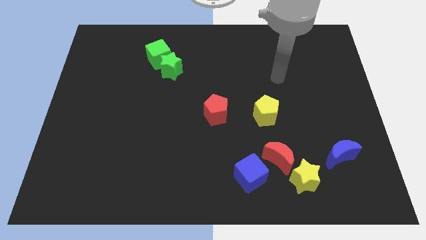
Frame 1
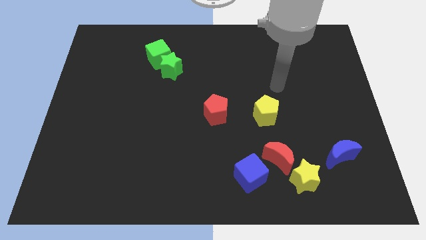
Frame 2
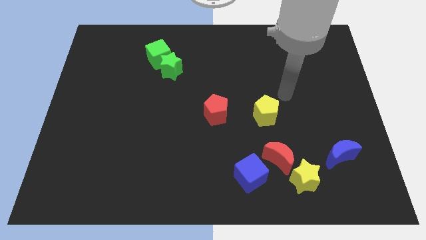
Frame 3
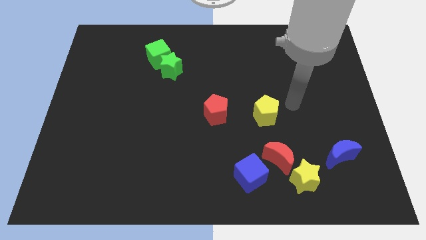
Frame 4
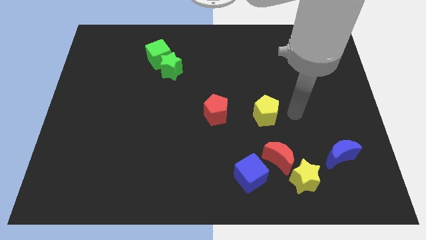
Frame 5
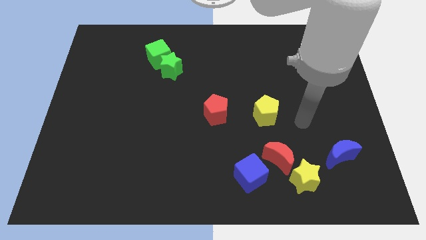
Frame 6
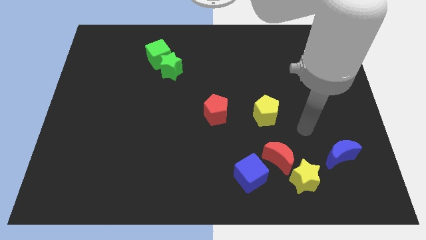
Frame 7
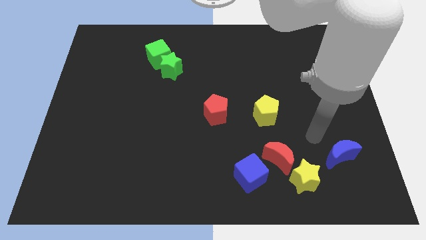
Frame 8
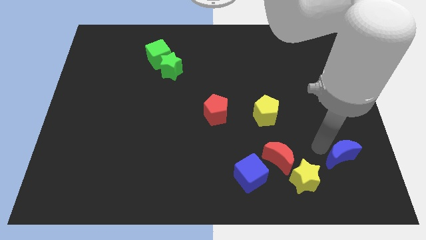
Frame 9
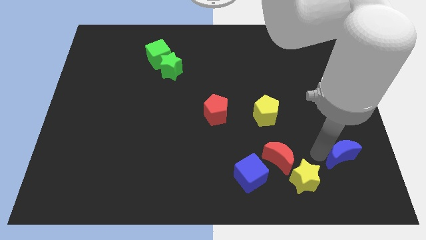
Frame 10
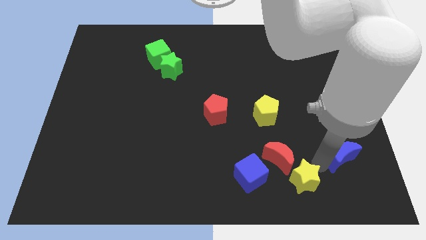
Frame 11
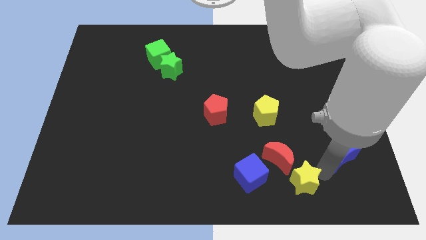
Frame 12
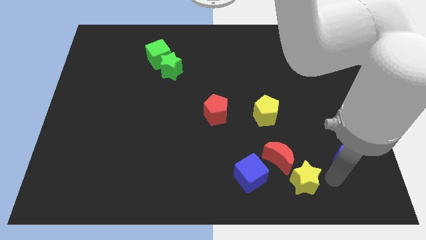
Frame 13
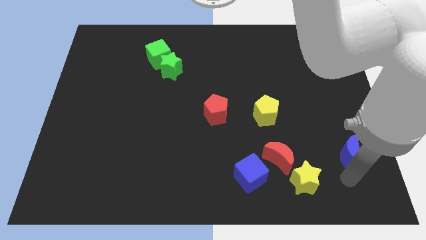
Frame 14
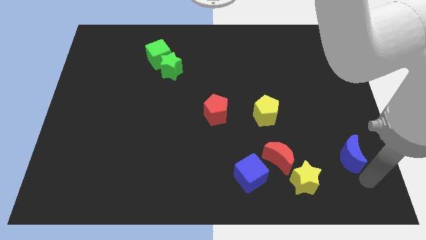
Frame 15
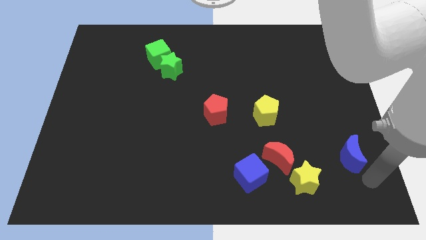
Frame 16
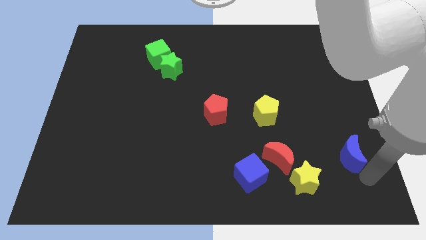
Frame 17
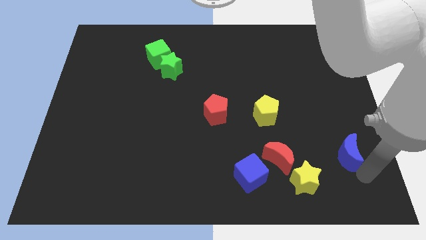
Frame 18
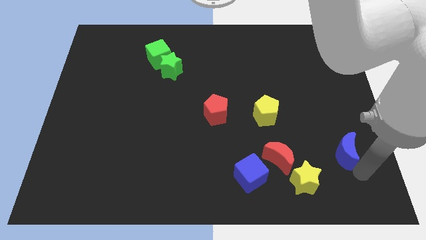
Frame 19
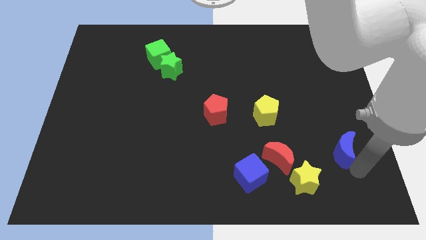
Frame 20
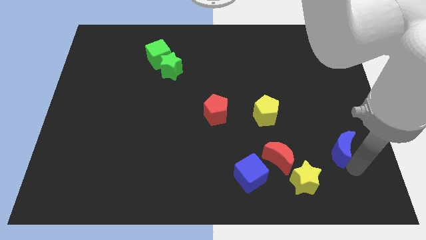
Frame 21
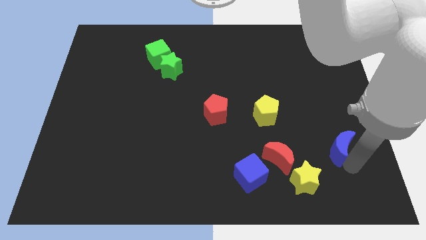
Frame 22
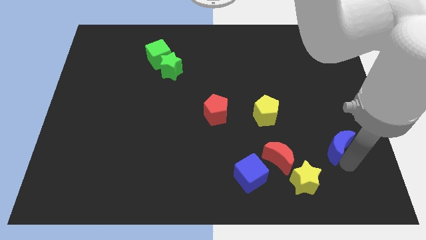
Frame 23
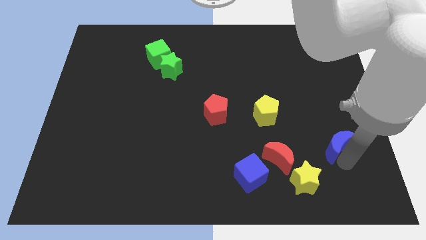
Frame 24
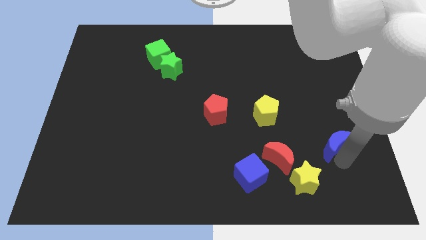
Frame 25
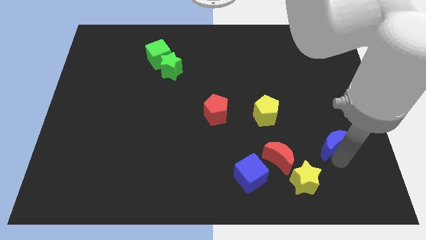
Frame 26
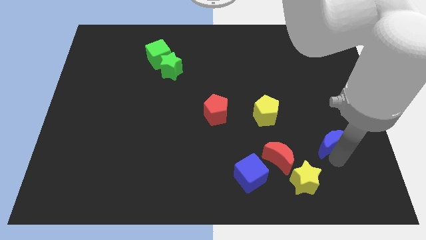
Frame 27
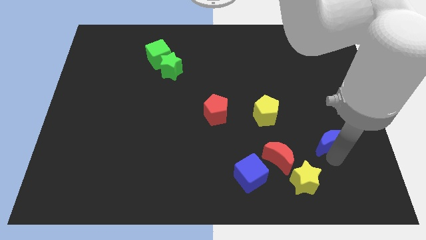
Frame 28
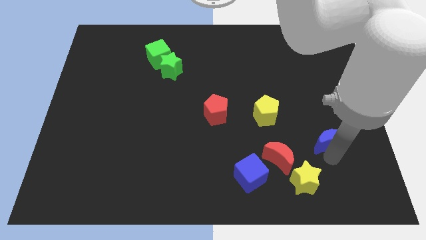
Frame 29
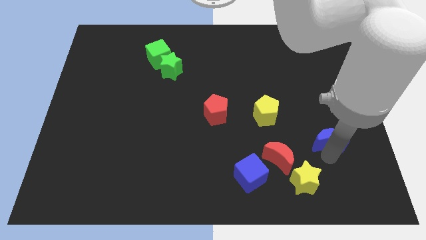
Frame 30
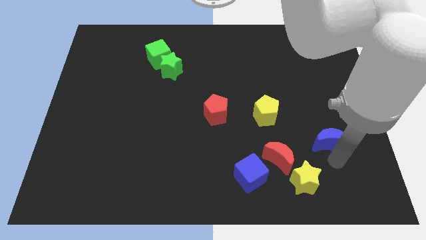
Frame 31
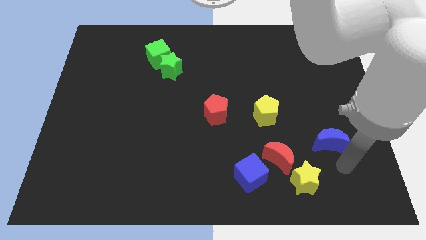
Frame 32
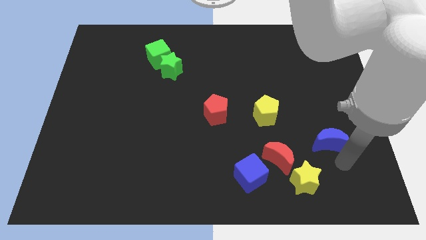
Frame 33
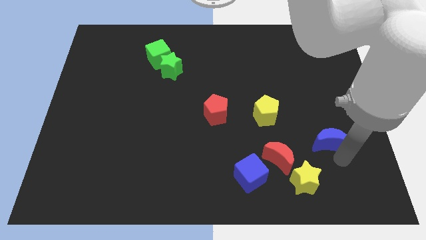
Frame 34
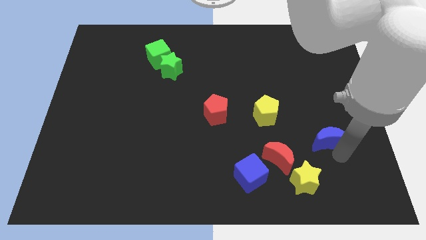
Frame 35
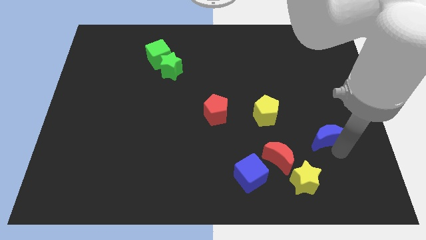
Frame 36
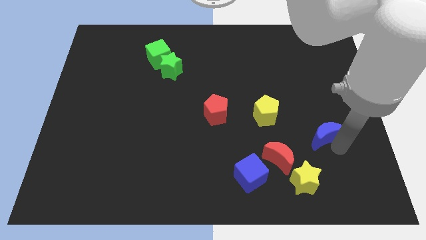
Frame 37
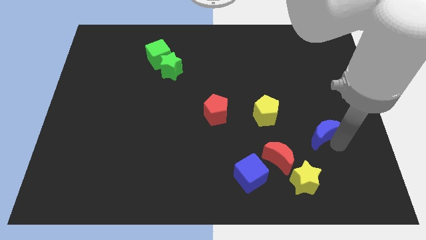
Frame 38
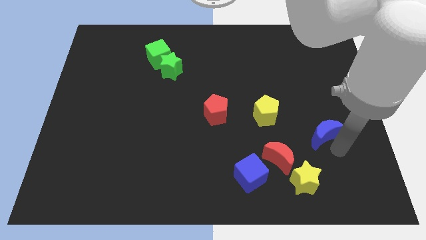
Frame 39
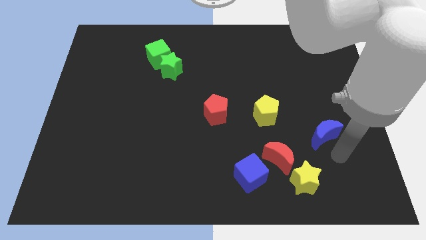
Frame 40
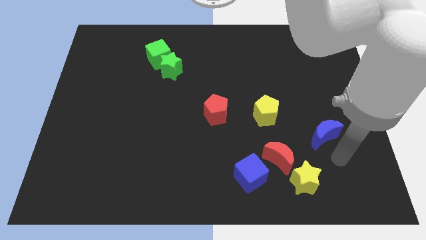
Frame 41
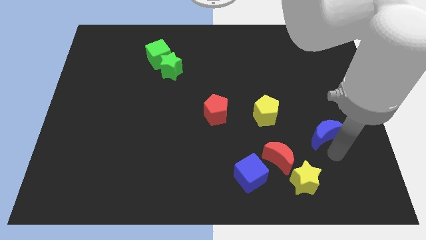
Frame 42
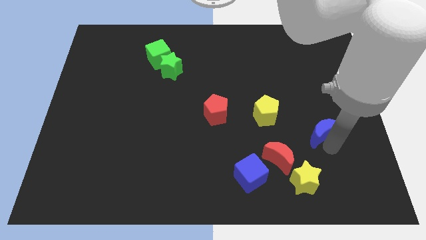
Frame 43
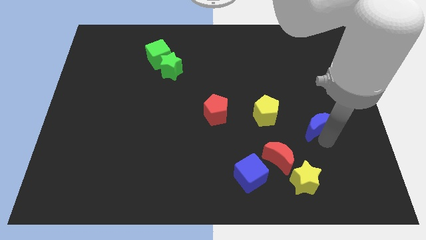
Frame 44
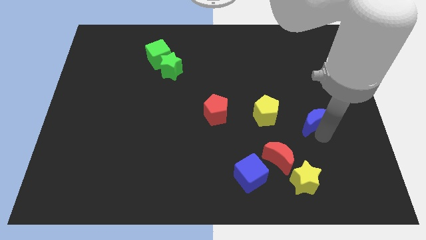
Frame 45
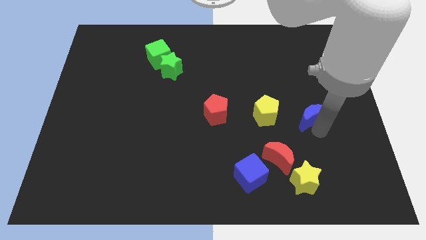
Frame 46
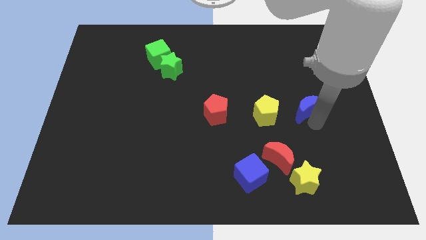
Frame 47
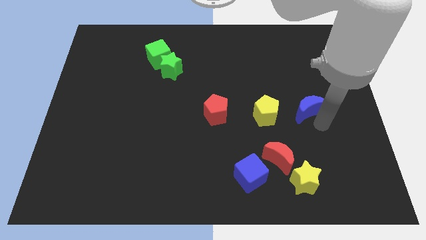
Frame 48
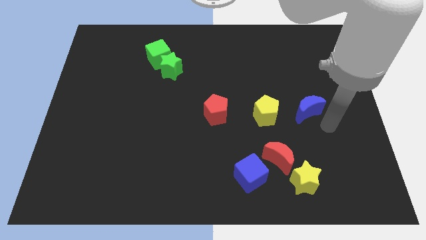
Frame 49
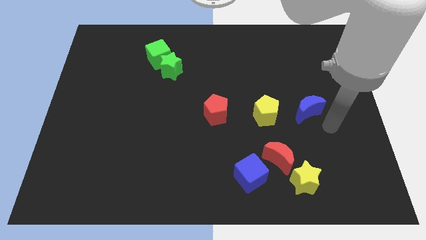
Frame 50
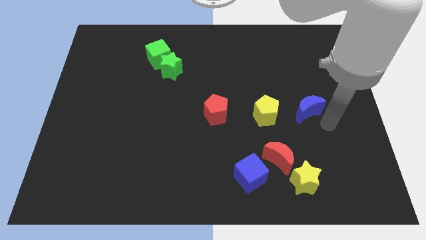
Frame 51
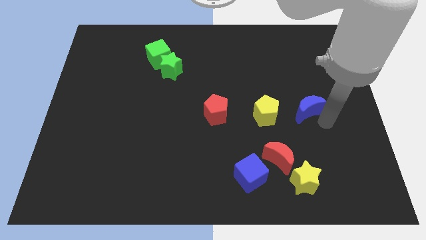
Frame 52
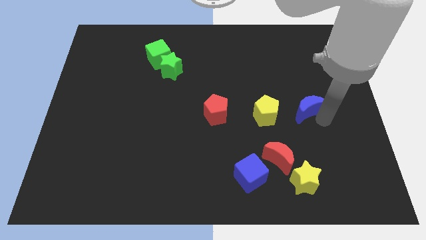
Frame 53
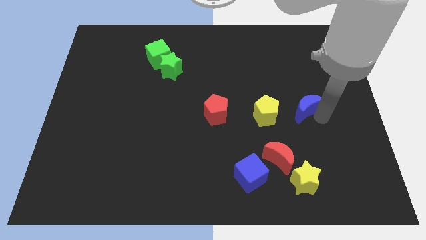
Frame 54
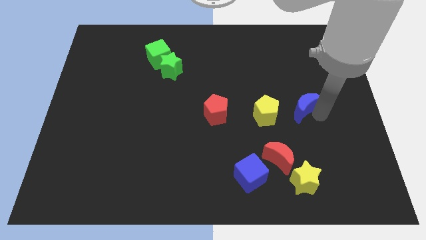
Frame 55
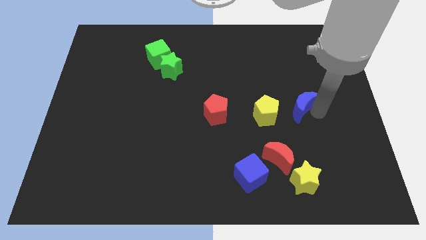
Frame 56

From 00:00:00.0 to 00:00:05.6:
put the blue moon to the top right side of the yellow pentagon
